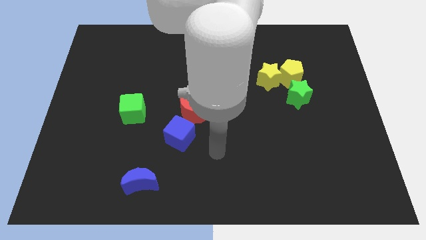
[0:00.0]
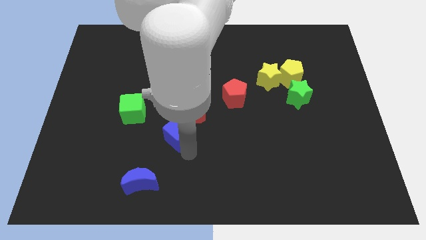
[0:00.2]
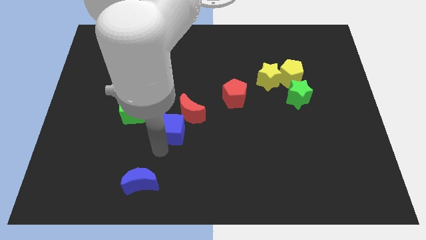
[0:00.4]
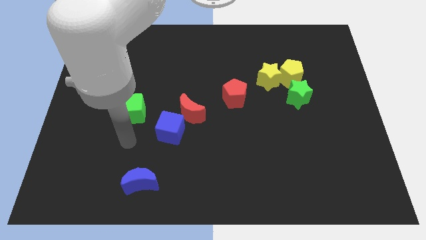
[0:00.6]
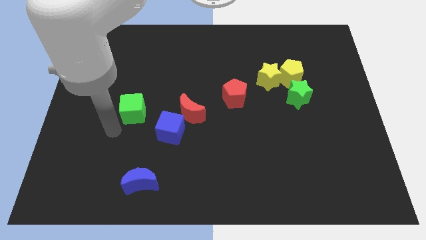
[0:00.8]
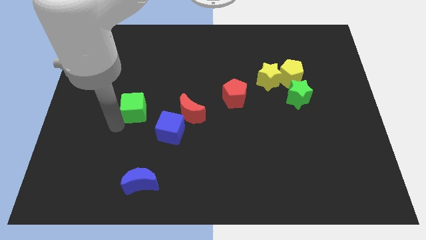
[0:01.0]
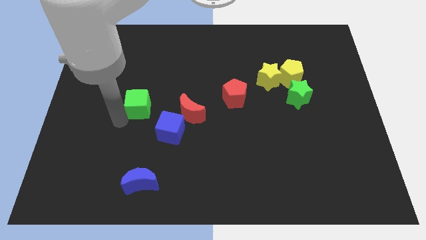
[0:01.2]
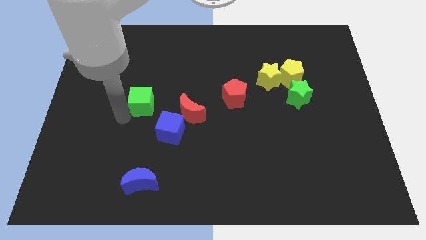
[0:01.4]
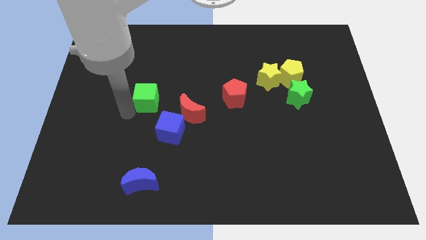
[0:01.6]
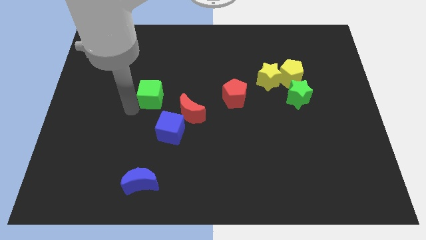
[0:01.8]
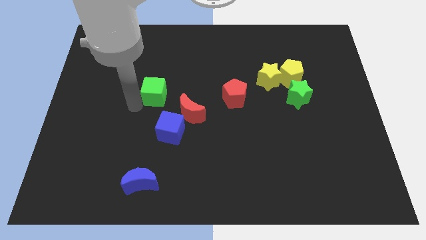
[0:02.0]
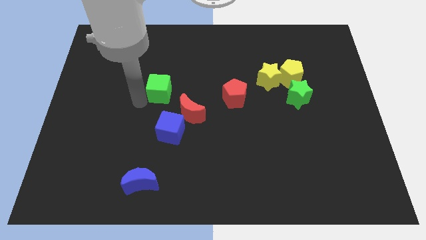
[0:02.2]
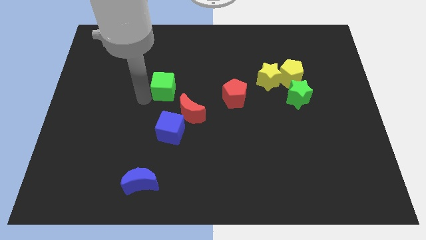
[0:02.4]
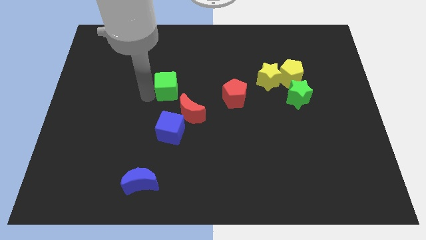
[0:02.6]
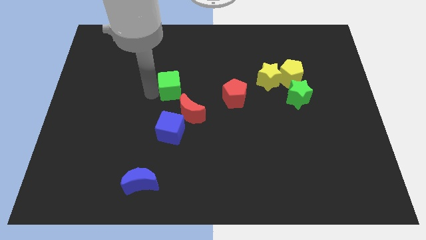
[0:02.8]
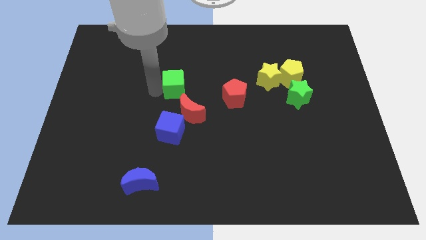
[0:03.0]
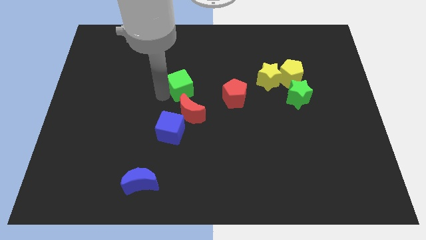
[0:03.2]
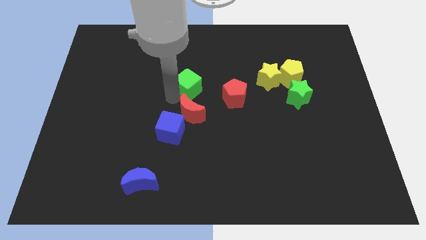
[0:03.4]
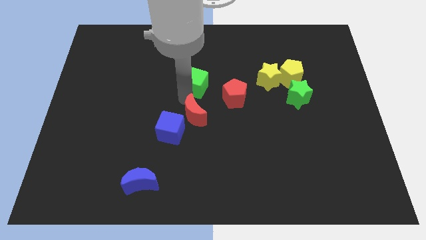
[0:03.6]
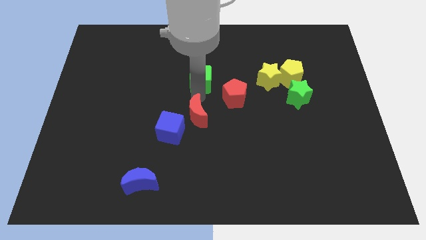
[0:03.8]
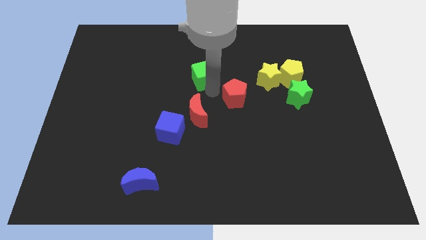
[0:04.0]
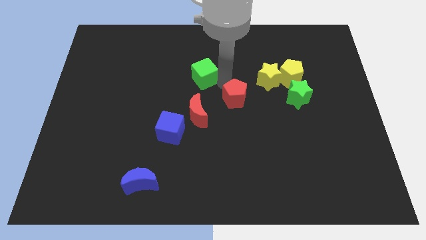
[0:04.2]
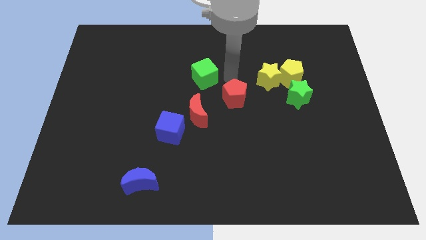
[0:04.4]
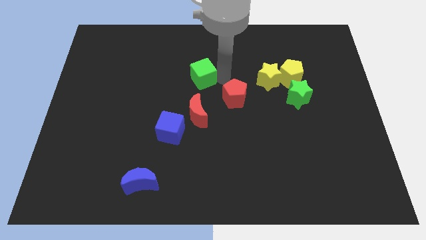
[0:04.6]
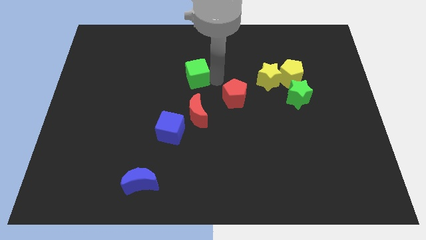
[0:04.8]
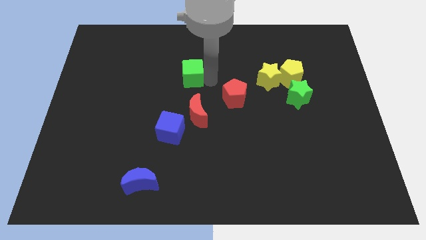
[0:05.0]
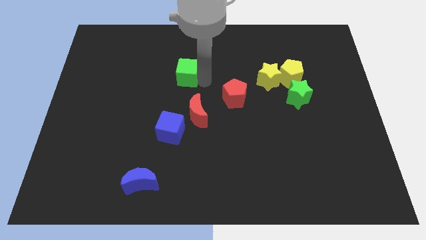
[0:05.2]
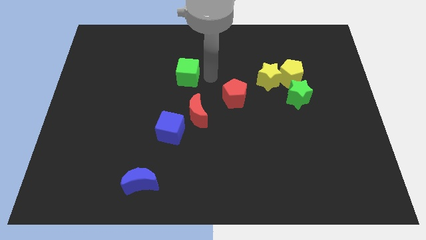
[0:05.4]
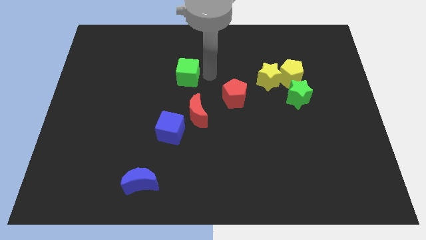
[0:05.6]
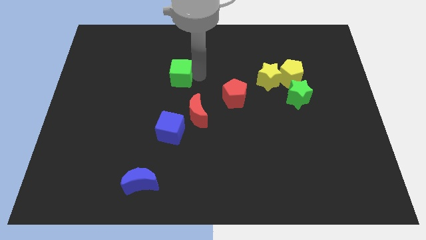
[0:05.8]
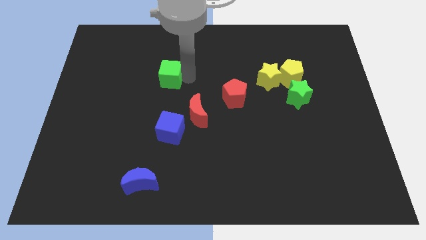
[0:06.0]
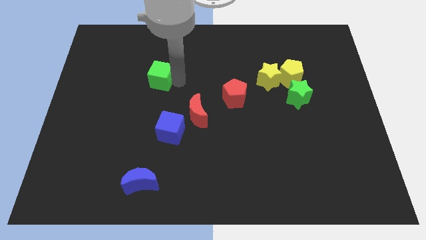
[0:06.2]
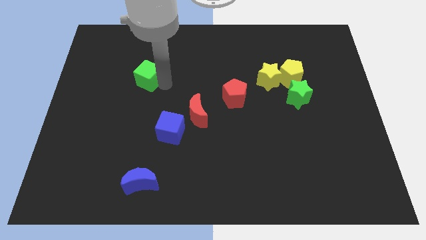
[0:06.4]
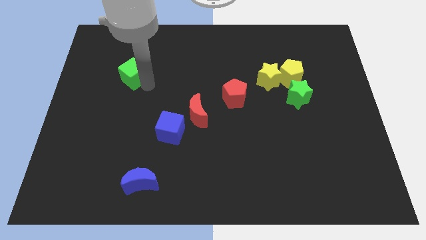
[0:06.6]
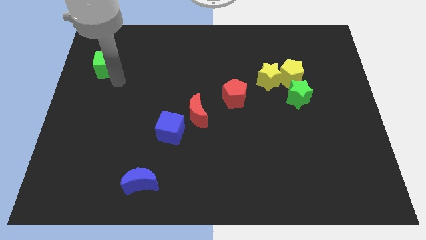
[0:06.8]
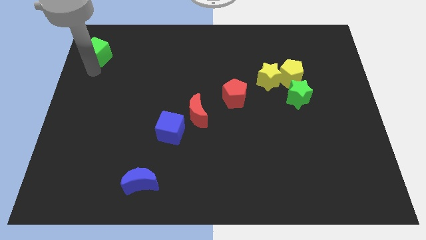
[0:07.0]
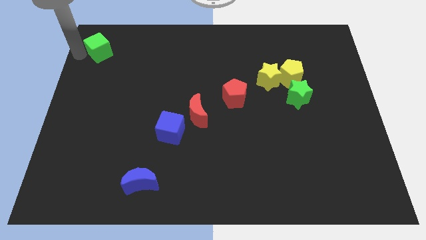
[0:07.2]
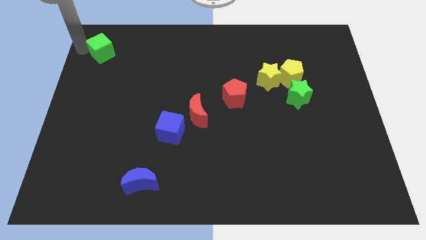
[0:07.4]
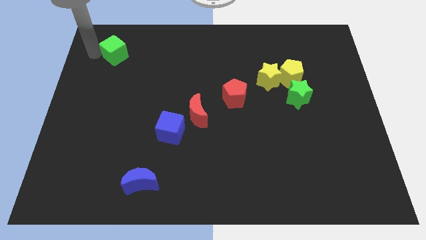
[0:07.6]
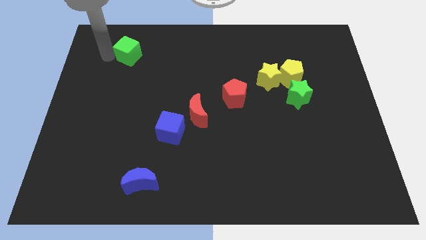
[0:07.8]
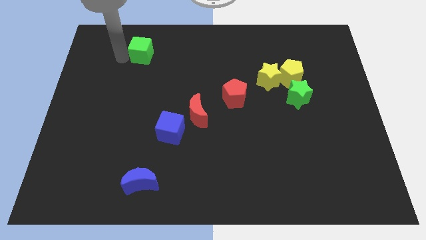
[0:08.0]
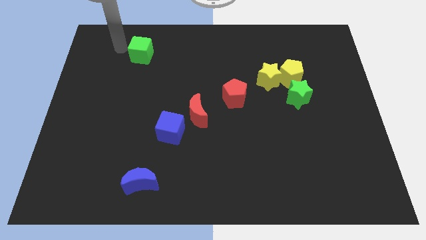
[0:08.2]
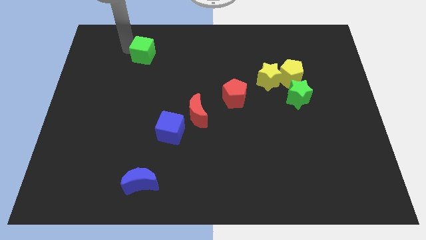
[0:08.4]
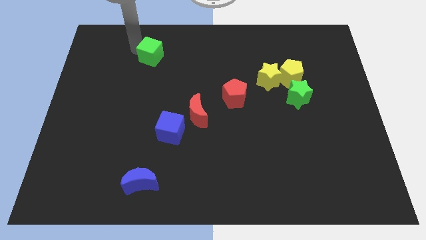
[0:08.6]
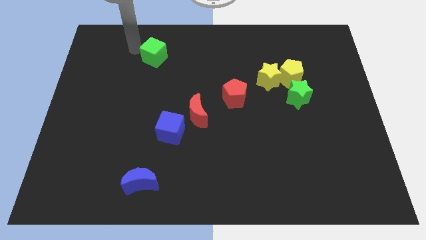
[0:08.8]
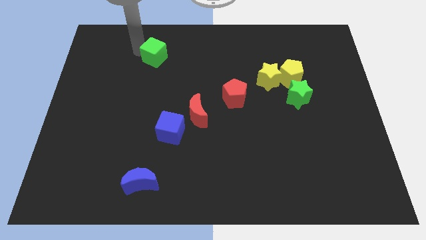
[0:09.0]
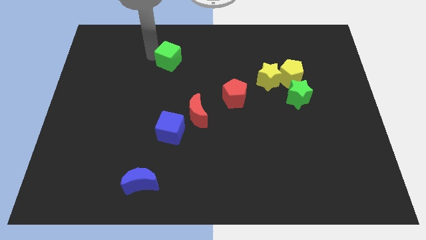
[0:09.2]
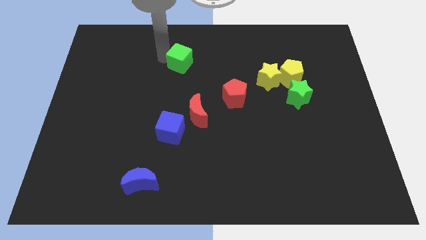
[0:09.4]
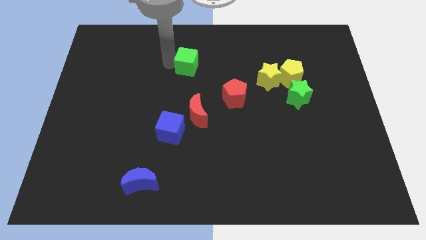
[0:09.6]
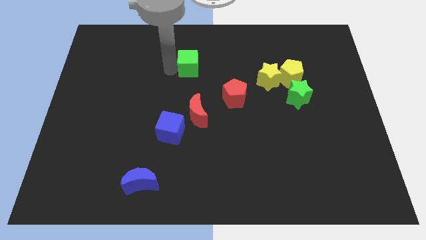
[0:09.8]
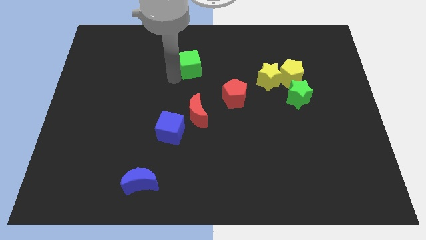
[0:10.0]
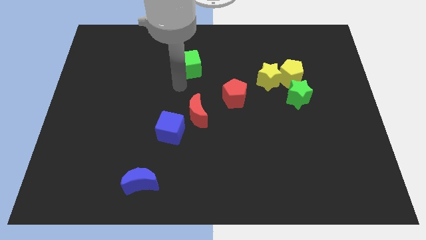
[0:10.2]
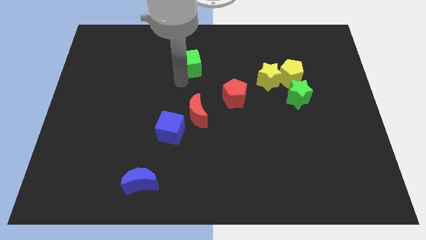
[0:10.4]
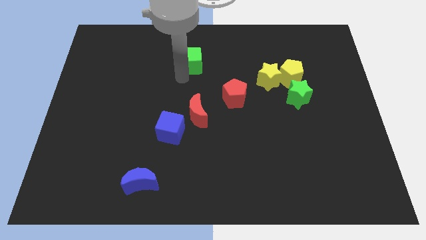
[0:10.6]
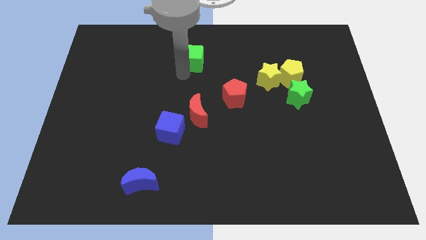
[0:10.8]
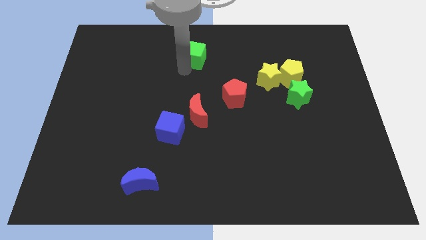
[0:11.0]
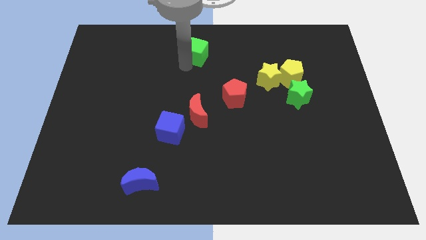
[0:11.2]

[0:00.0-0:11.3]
push the green cube to the towards your base

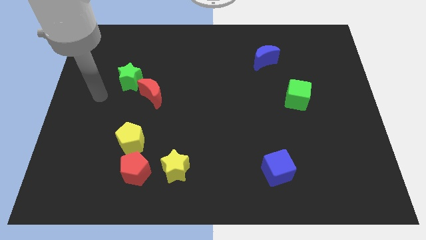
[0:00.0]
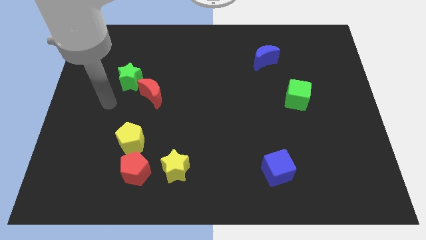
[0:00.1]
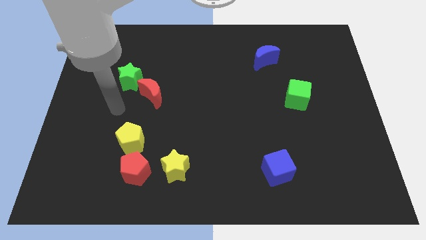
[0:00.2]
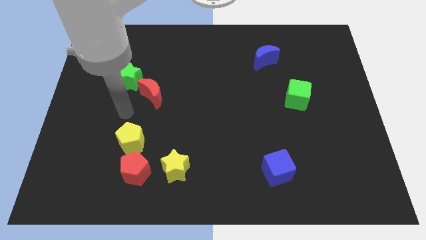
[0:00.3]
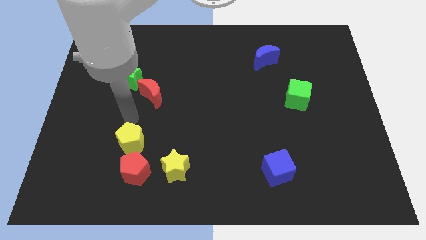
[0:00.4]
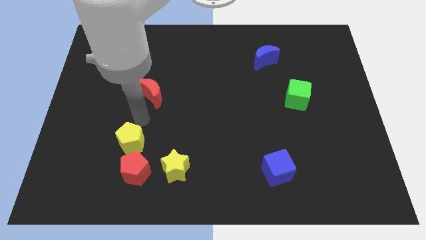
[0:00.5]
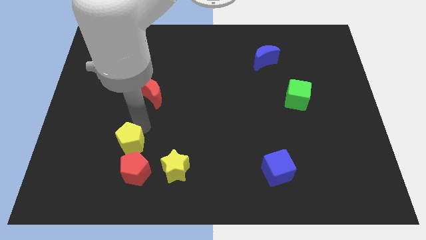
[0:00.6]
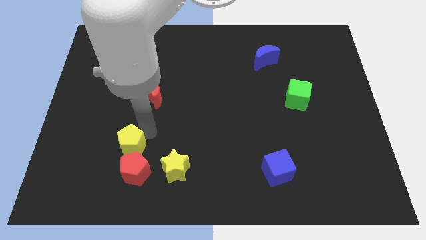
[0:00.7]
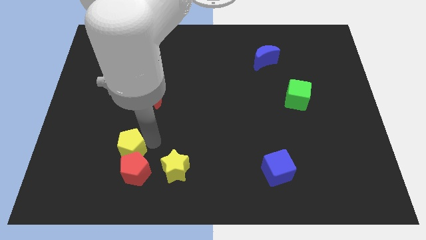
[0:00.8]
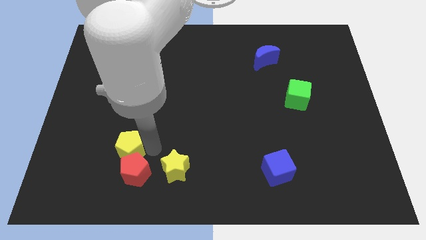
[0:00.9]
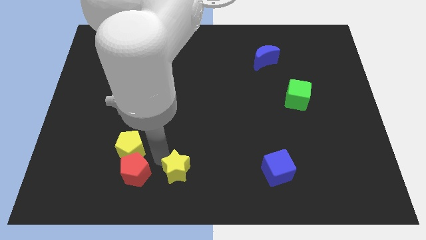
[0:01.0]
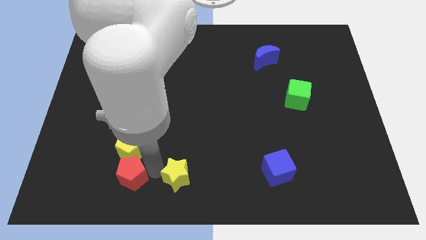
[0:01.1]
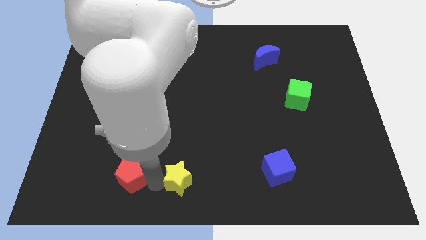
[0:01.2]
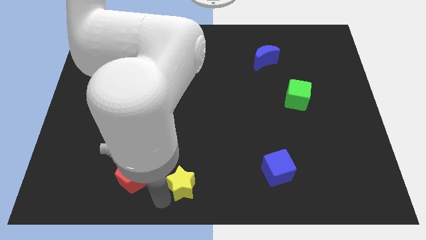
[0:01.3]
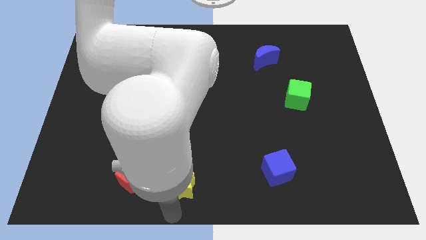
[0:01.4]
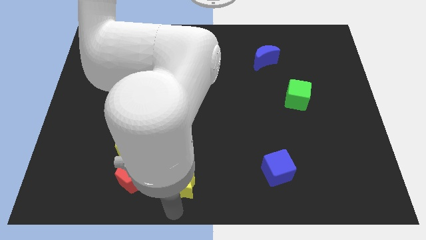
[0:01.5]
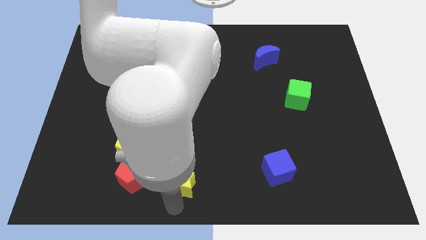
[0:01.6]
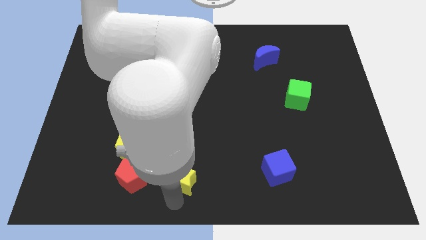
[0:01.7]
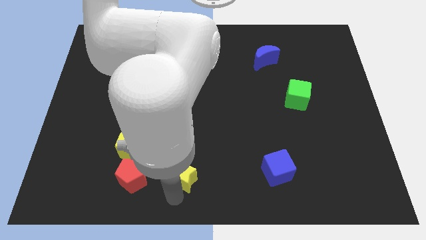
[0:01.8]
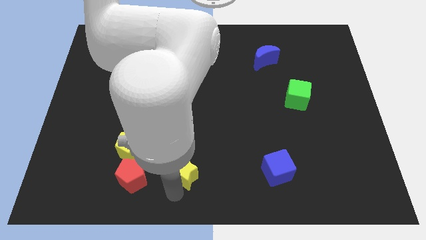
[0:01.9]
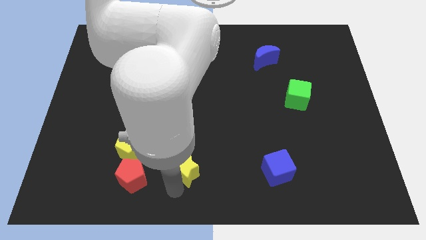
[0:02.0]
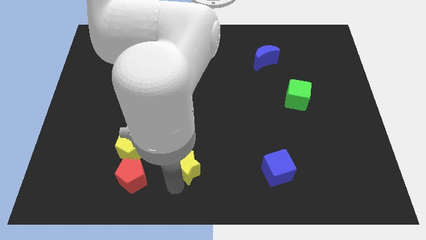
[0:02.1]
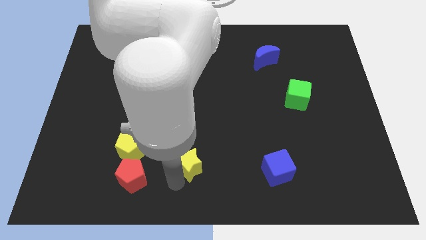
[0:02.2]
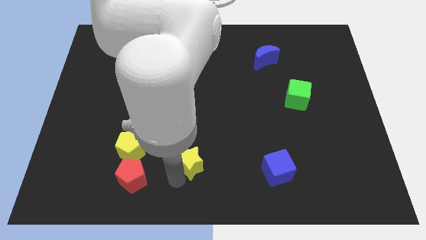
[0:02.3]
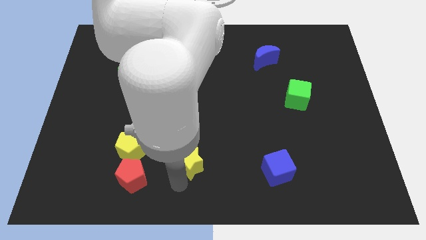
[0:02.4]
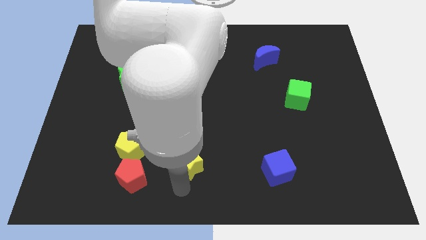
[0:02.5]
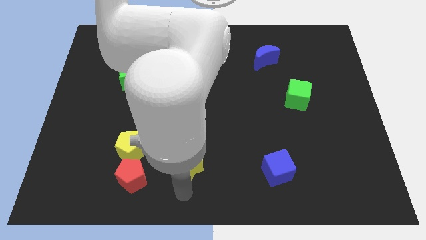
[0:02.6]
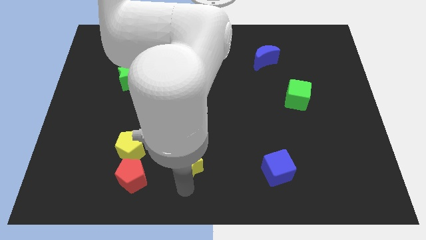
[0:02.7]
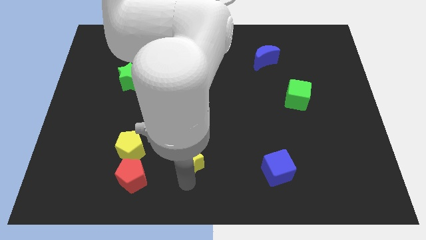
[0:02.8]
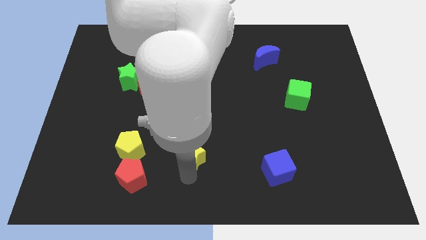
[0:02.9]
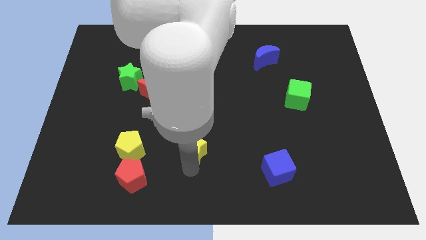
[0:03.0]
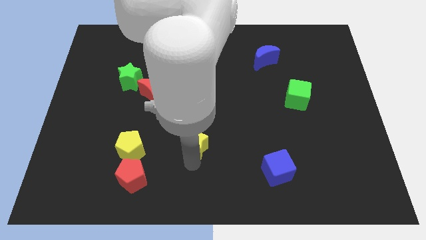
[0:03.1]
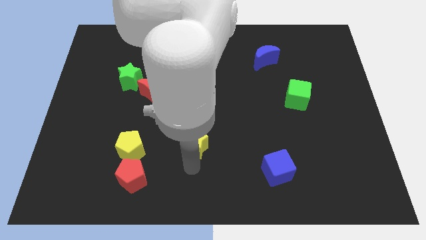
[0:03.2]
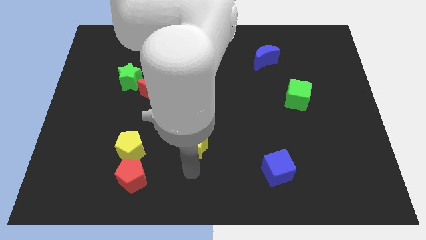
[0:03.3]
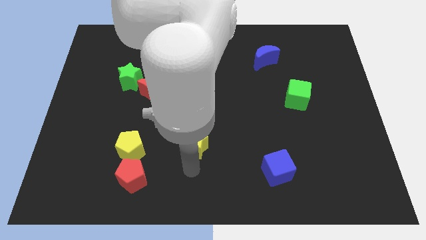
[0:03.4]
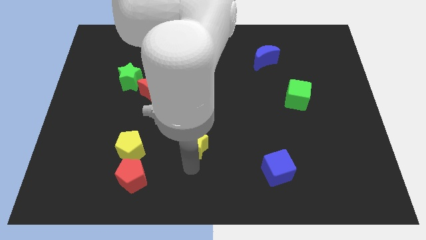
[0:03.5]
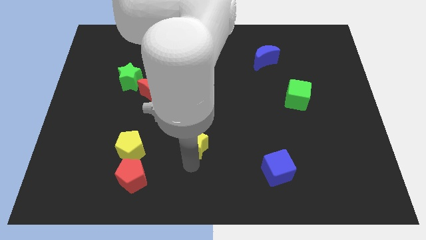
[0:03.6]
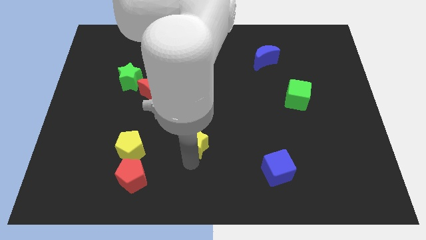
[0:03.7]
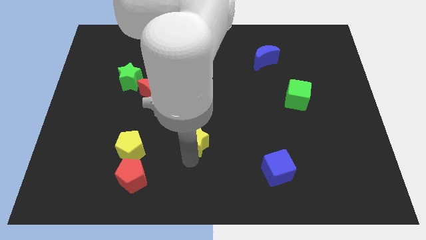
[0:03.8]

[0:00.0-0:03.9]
slide the yellow star to the center of the board
